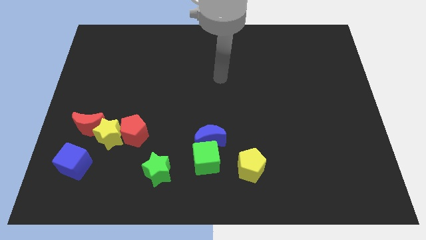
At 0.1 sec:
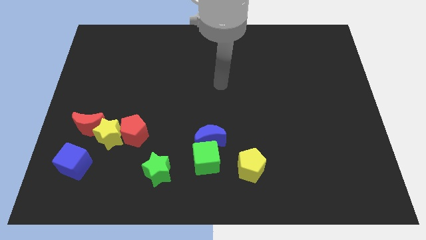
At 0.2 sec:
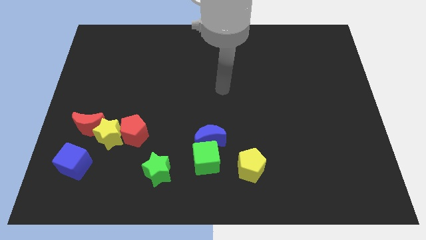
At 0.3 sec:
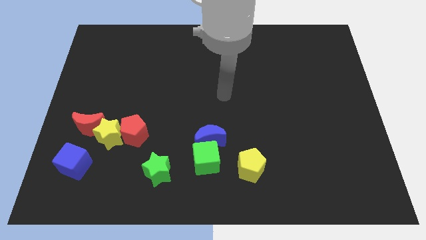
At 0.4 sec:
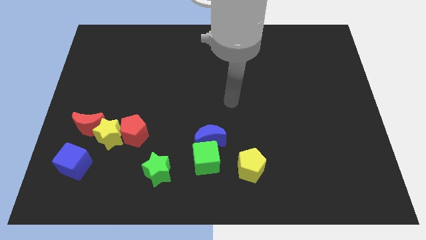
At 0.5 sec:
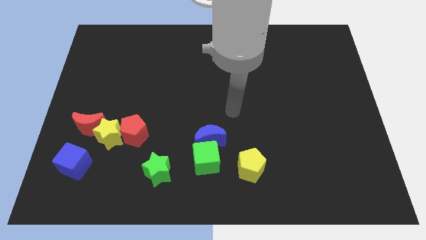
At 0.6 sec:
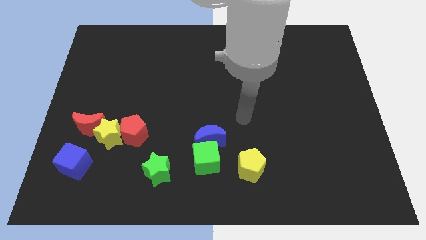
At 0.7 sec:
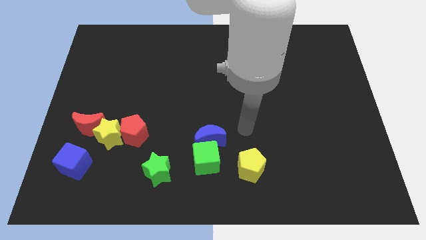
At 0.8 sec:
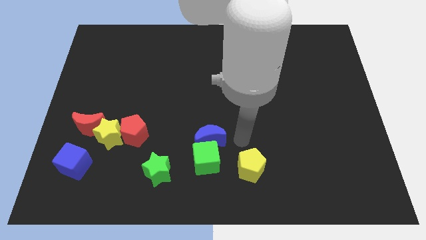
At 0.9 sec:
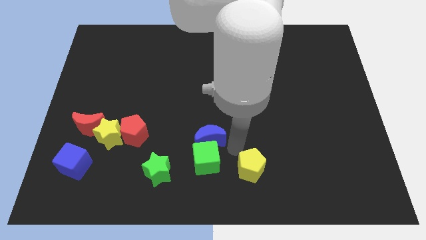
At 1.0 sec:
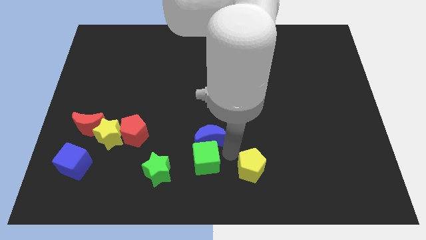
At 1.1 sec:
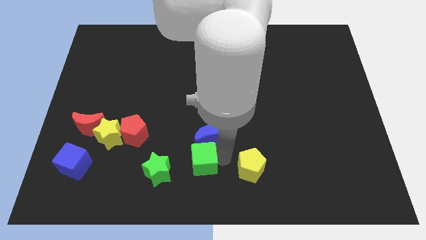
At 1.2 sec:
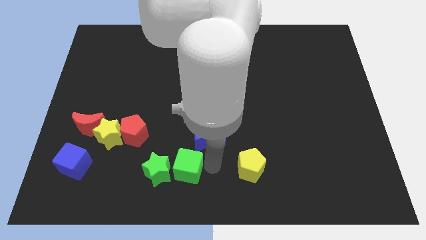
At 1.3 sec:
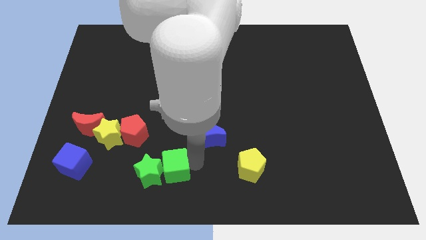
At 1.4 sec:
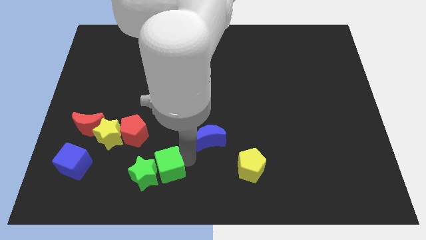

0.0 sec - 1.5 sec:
separate the blue moon from the green cube

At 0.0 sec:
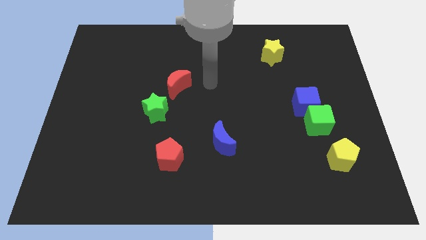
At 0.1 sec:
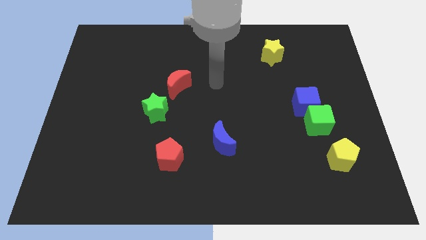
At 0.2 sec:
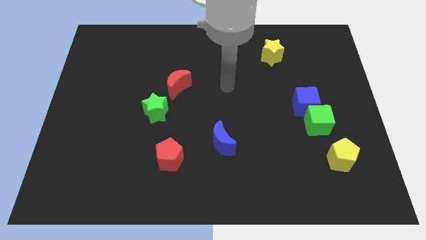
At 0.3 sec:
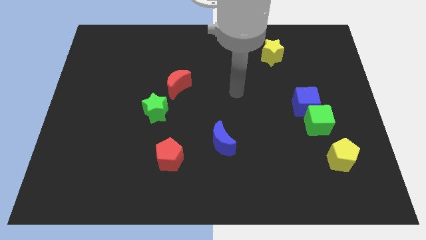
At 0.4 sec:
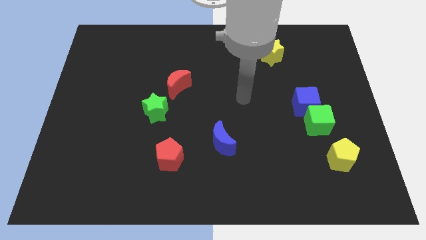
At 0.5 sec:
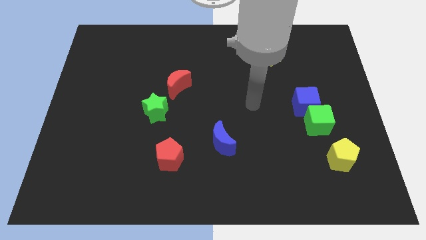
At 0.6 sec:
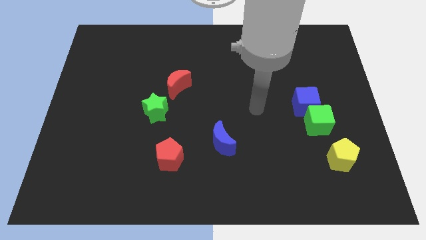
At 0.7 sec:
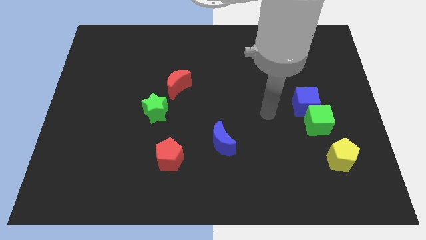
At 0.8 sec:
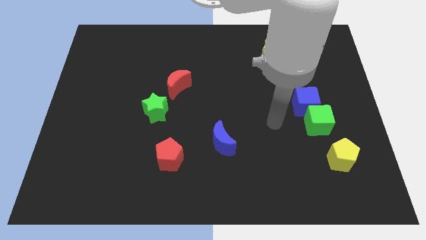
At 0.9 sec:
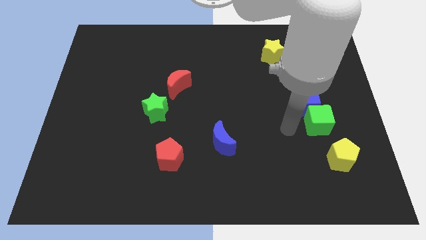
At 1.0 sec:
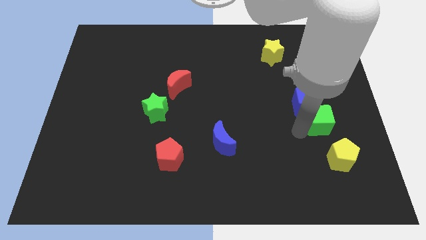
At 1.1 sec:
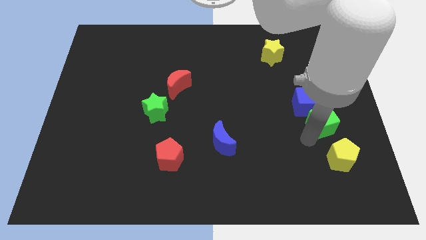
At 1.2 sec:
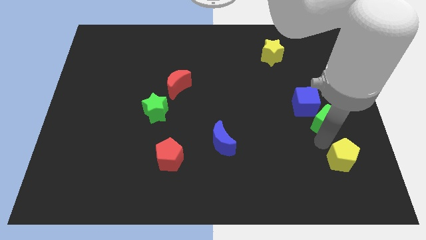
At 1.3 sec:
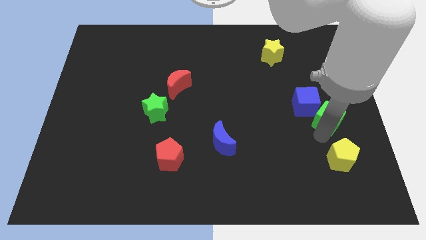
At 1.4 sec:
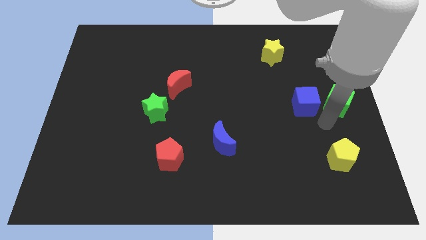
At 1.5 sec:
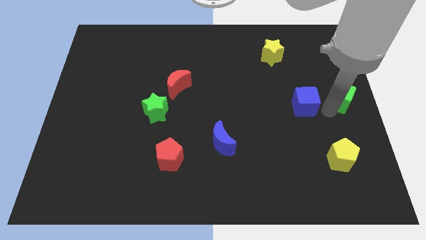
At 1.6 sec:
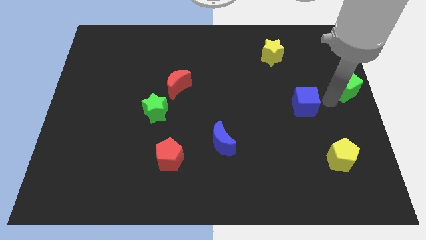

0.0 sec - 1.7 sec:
pull the blue cube apart from the green cube

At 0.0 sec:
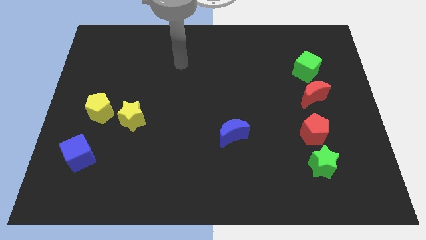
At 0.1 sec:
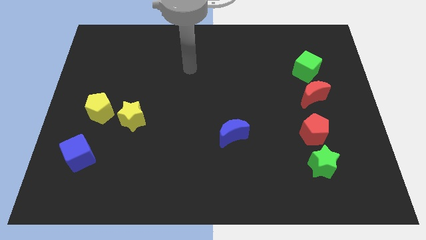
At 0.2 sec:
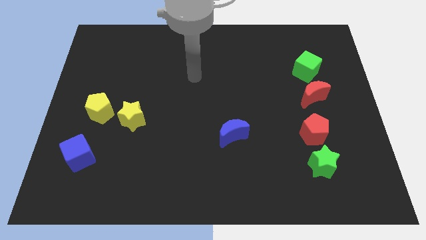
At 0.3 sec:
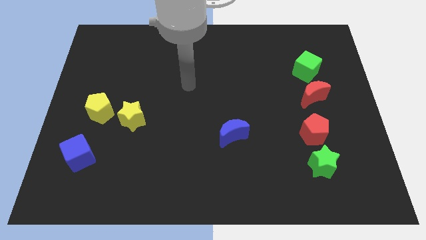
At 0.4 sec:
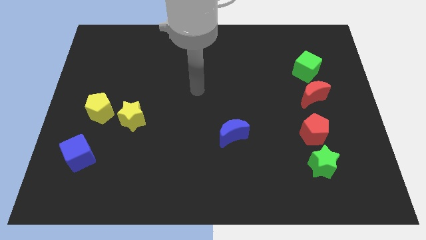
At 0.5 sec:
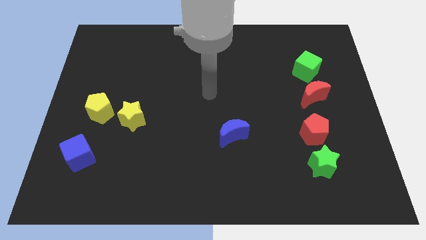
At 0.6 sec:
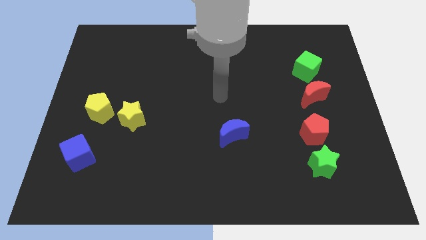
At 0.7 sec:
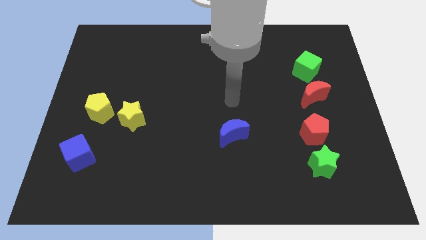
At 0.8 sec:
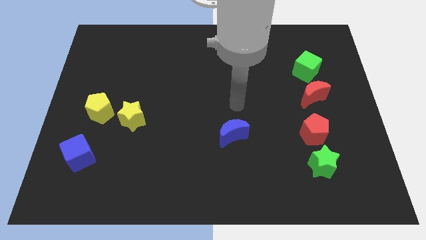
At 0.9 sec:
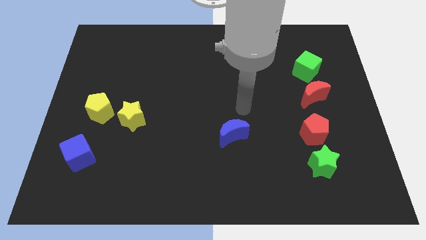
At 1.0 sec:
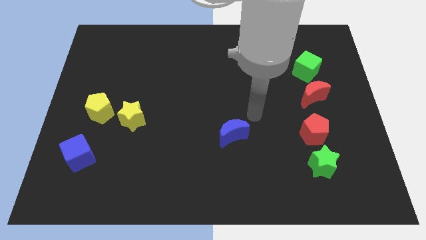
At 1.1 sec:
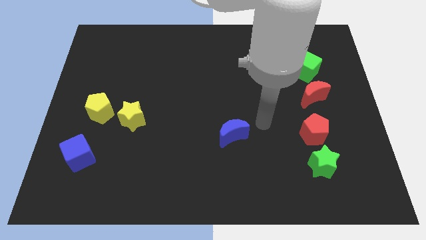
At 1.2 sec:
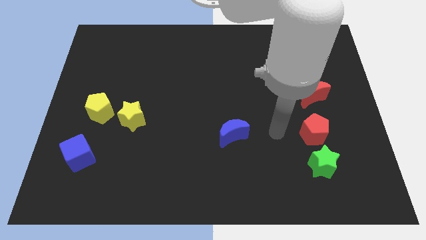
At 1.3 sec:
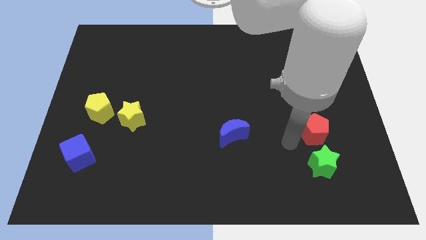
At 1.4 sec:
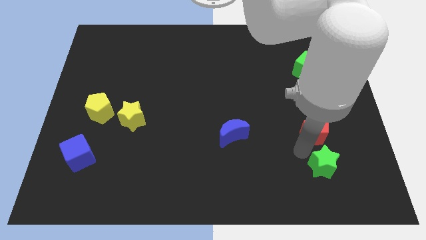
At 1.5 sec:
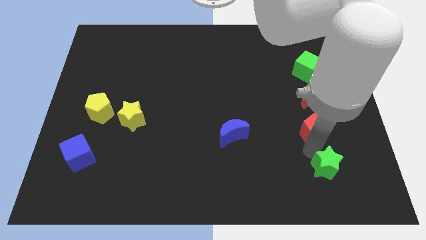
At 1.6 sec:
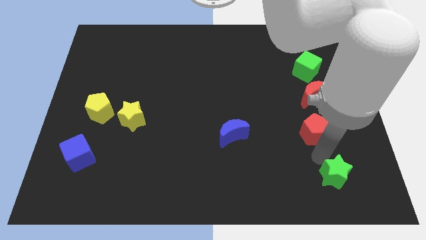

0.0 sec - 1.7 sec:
move the red pentagon away from the green star

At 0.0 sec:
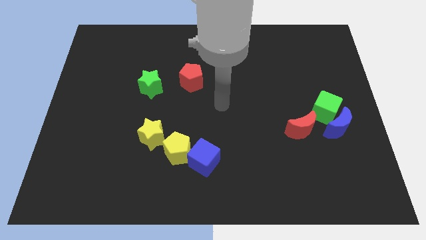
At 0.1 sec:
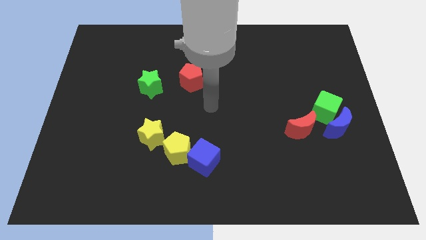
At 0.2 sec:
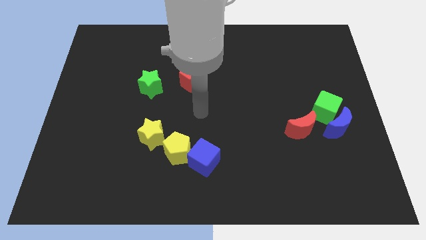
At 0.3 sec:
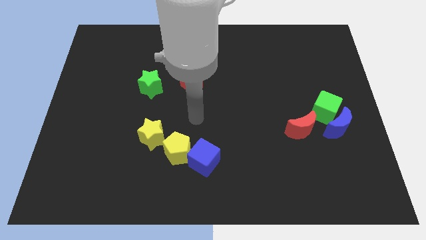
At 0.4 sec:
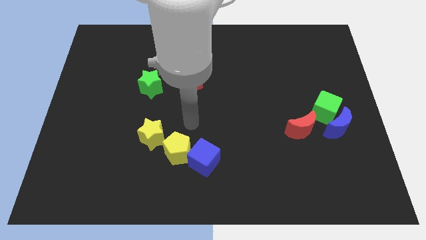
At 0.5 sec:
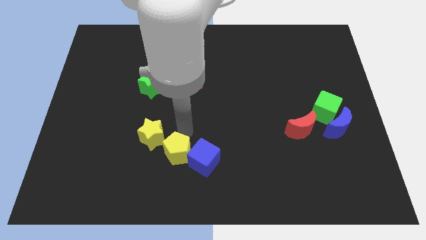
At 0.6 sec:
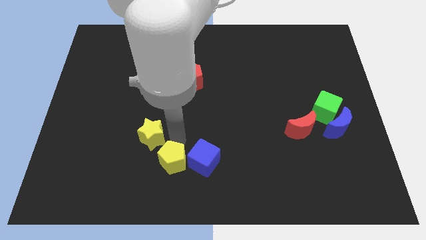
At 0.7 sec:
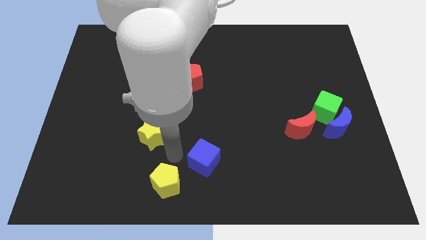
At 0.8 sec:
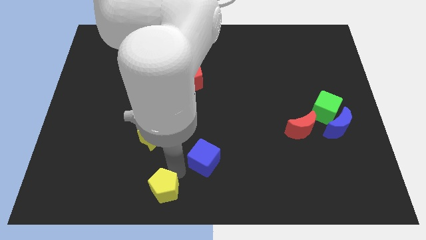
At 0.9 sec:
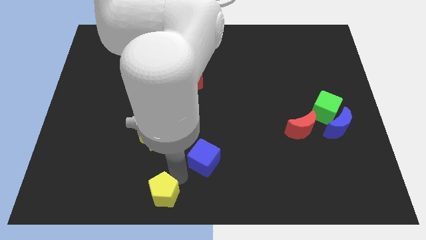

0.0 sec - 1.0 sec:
pull the blue cube apart from the yellow pentagon

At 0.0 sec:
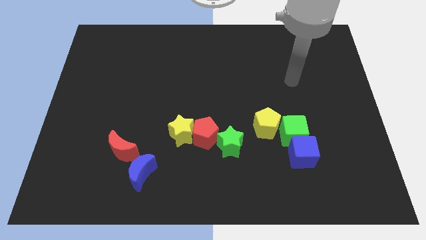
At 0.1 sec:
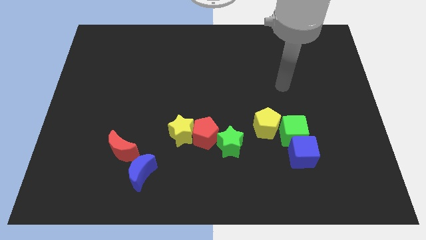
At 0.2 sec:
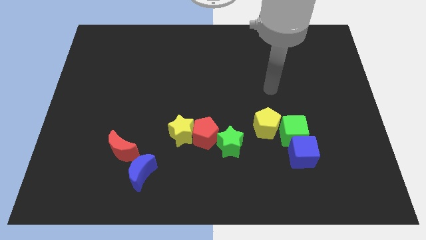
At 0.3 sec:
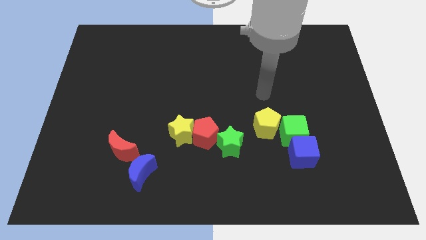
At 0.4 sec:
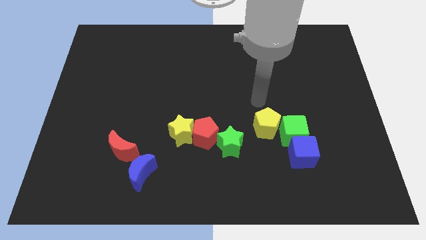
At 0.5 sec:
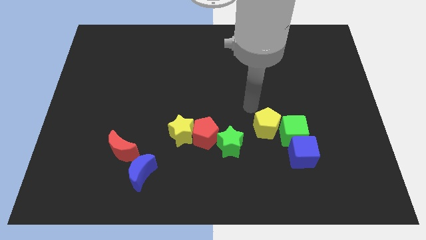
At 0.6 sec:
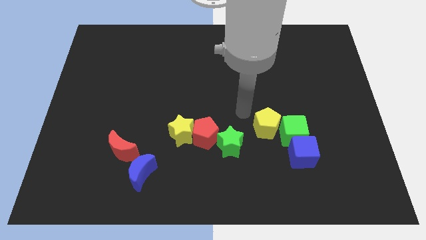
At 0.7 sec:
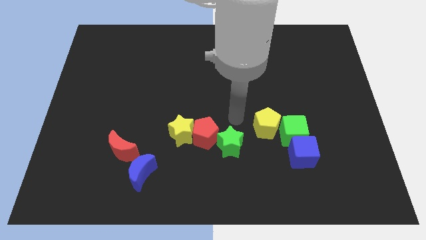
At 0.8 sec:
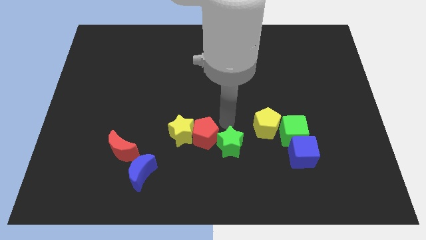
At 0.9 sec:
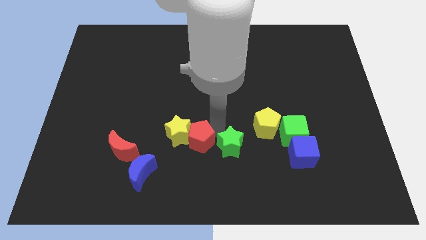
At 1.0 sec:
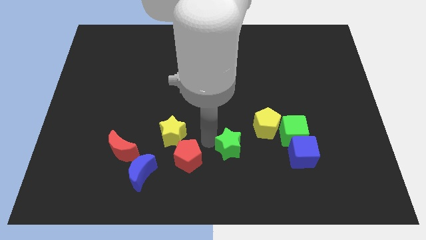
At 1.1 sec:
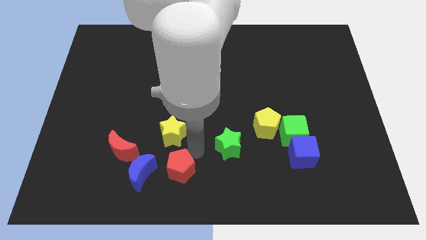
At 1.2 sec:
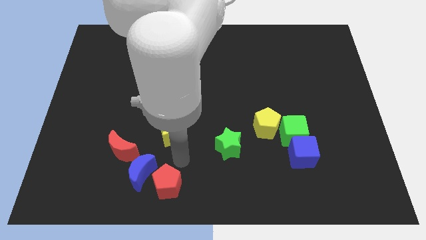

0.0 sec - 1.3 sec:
pull the yellow star apart from the red pentagon

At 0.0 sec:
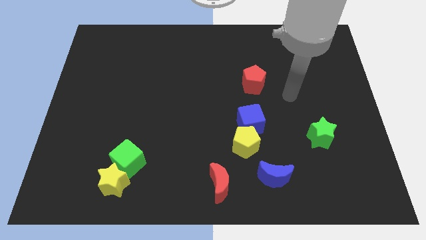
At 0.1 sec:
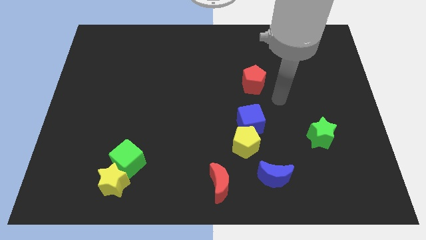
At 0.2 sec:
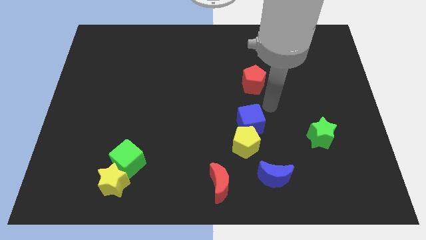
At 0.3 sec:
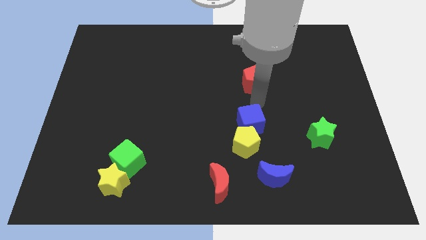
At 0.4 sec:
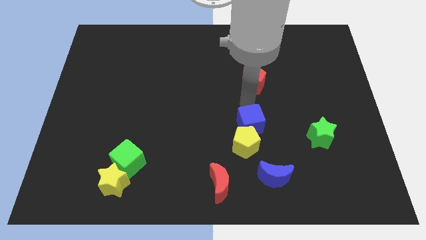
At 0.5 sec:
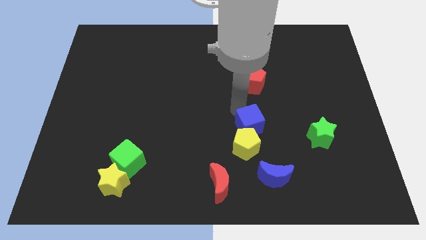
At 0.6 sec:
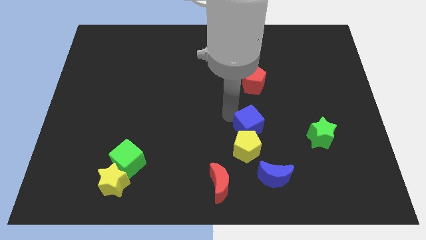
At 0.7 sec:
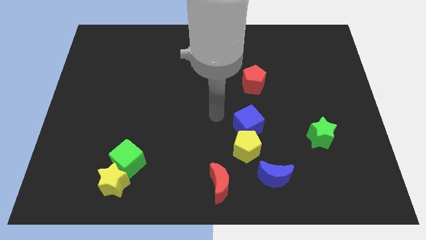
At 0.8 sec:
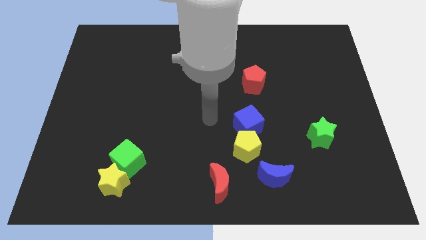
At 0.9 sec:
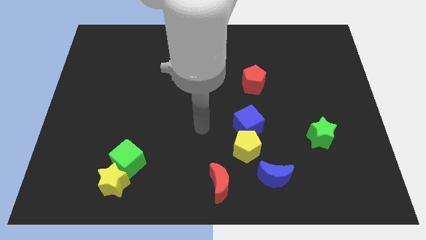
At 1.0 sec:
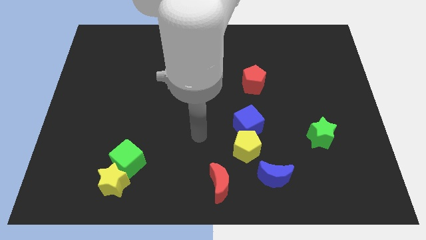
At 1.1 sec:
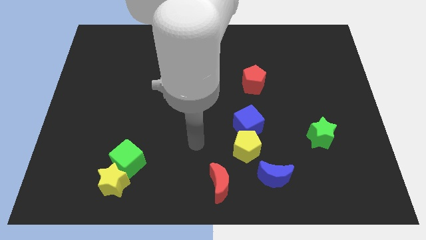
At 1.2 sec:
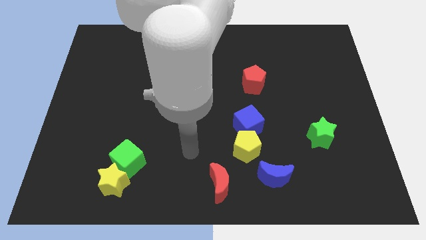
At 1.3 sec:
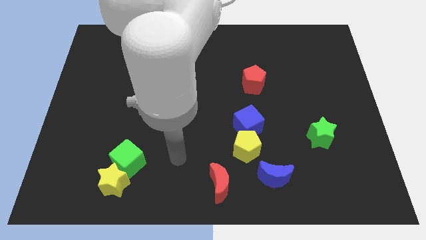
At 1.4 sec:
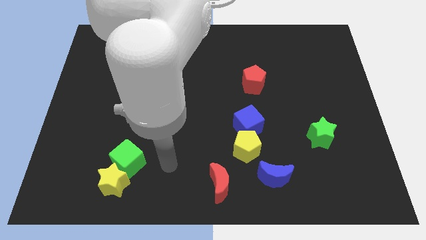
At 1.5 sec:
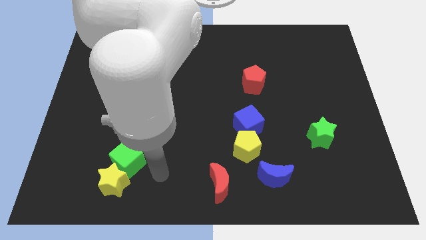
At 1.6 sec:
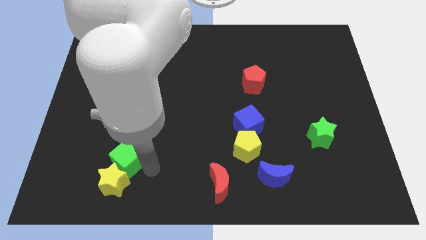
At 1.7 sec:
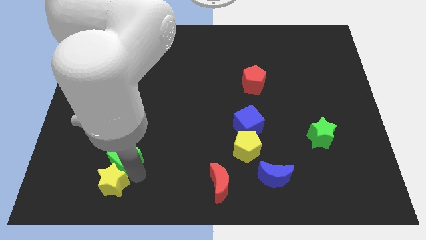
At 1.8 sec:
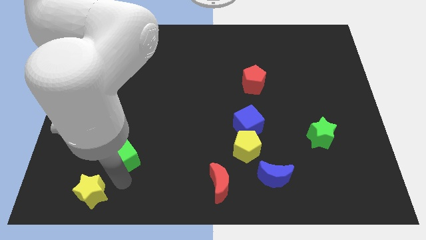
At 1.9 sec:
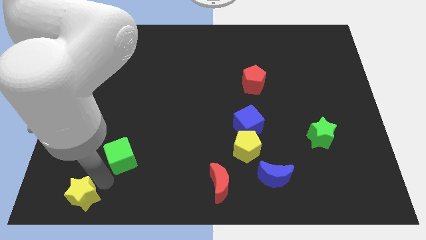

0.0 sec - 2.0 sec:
separate the green cube from the yellow star

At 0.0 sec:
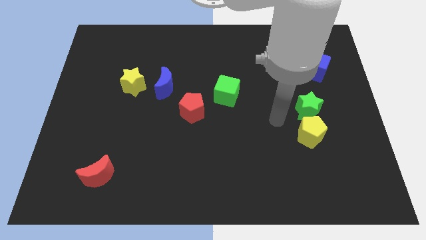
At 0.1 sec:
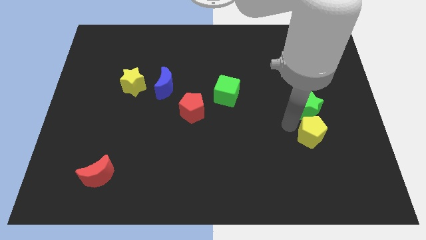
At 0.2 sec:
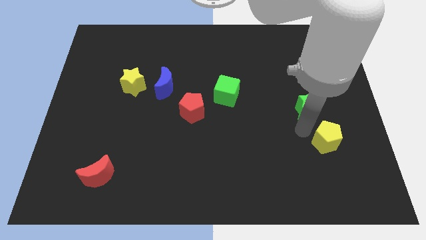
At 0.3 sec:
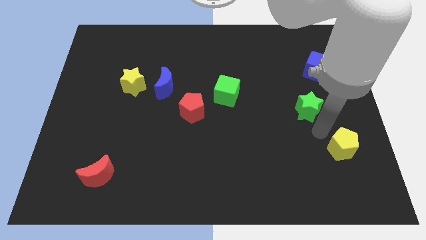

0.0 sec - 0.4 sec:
pull the green star apart from the yellow pentagon
